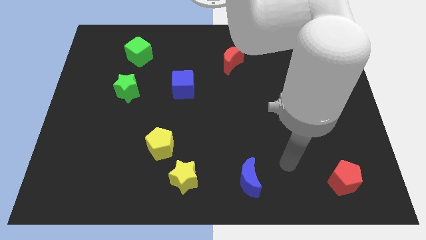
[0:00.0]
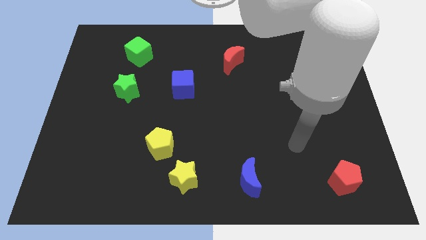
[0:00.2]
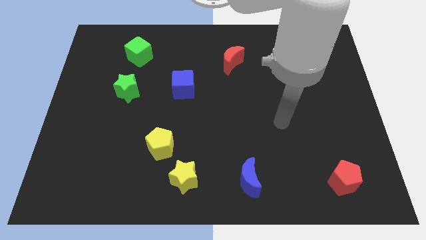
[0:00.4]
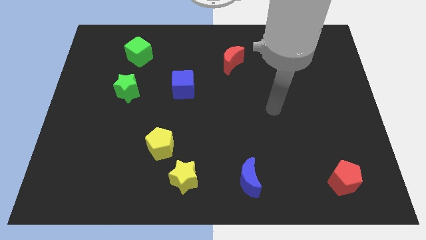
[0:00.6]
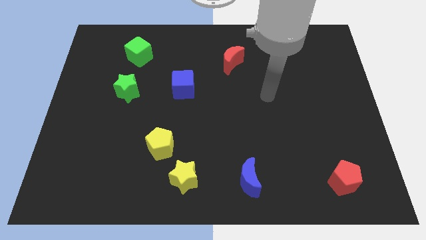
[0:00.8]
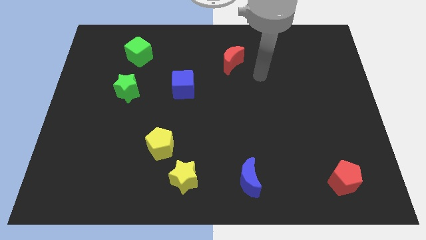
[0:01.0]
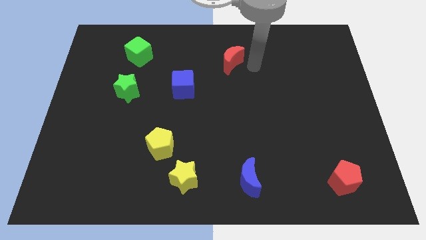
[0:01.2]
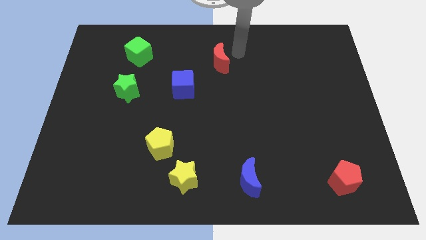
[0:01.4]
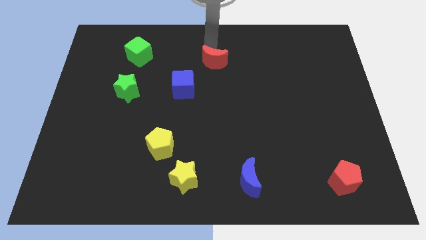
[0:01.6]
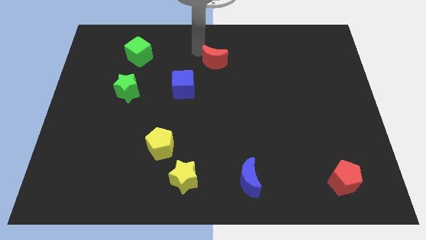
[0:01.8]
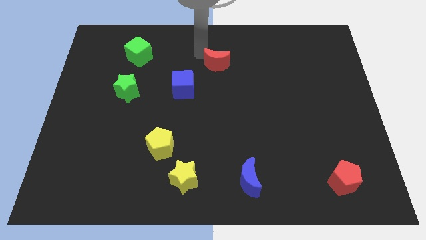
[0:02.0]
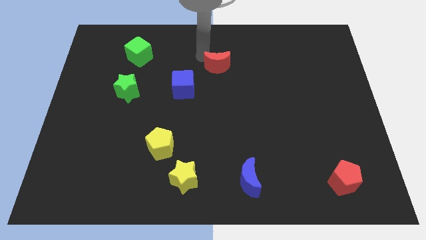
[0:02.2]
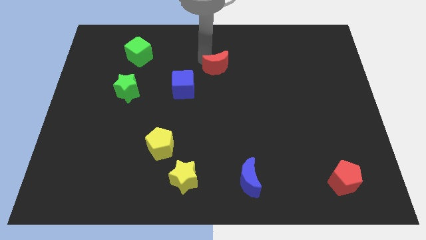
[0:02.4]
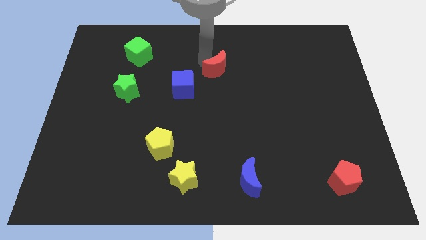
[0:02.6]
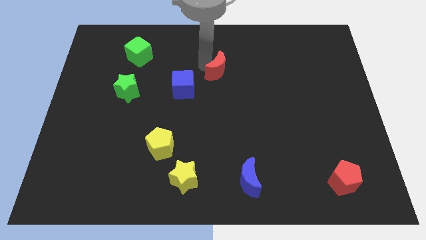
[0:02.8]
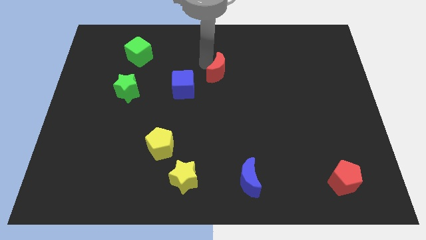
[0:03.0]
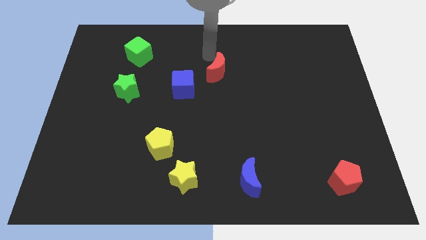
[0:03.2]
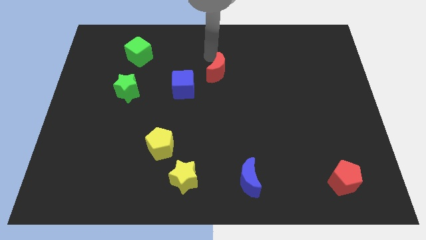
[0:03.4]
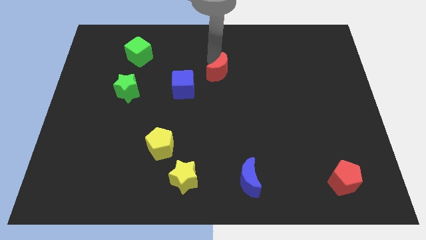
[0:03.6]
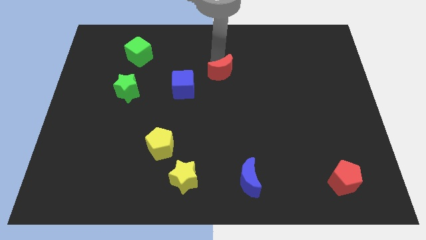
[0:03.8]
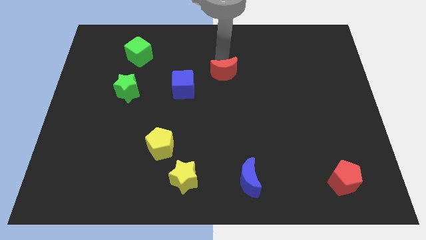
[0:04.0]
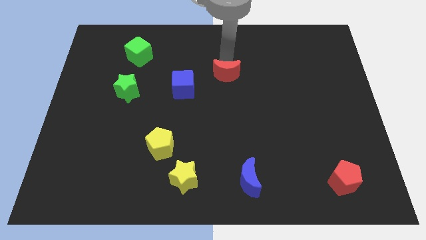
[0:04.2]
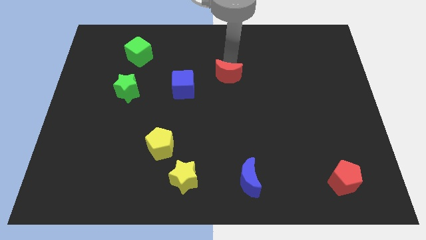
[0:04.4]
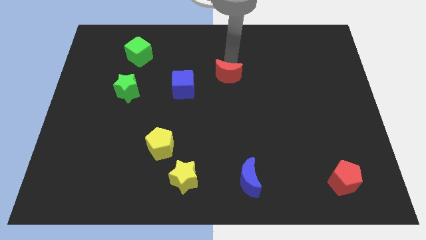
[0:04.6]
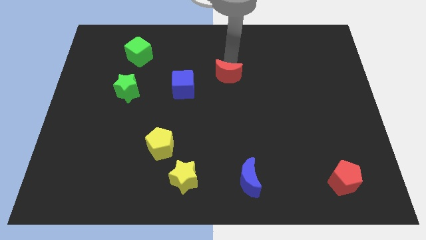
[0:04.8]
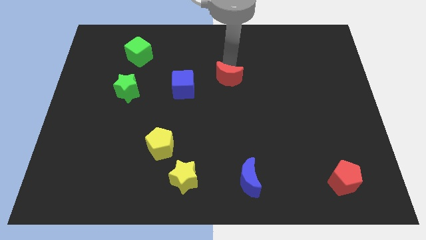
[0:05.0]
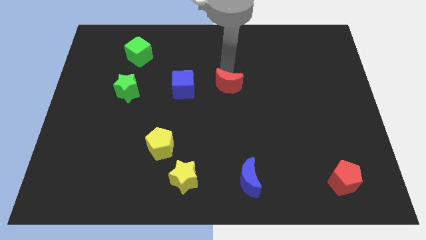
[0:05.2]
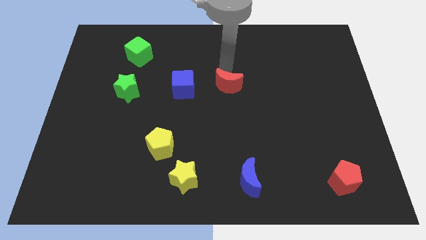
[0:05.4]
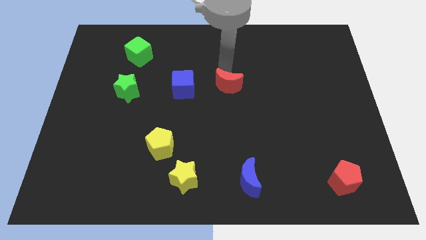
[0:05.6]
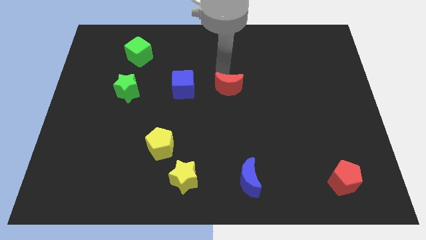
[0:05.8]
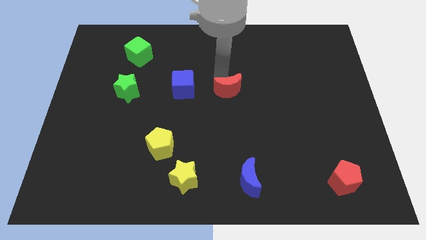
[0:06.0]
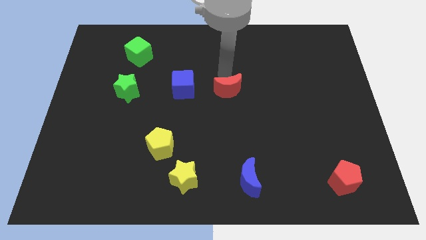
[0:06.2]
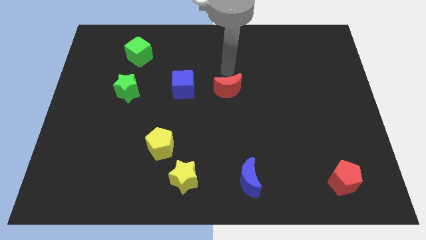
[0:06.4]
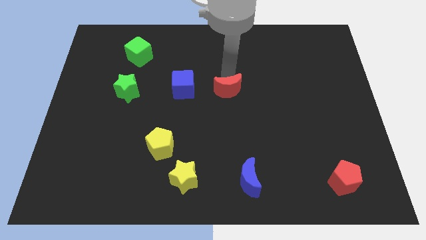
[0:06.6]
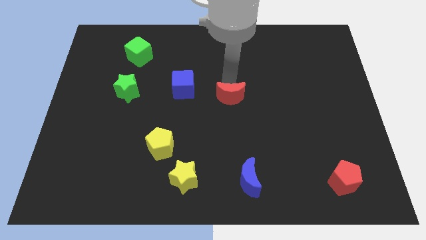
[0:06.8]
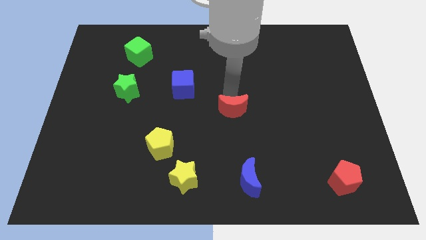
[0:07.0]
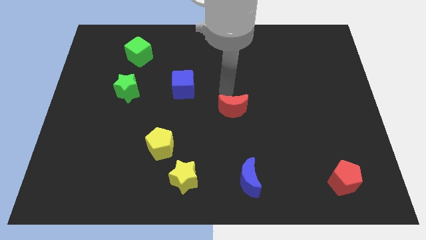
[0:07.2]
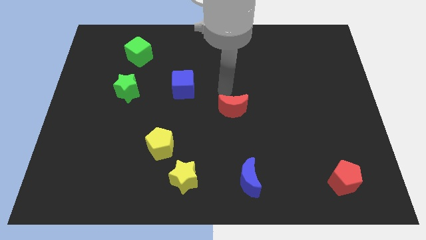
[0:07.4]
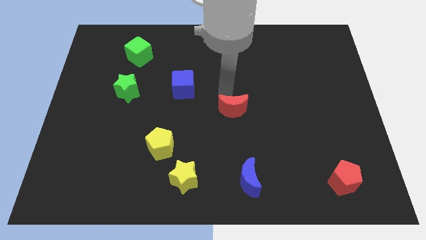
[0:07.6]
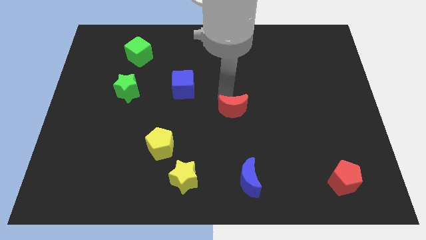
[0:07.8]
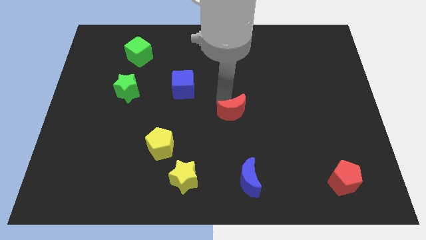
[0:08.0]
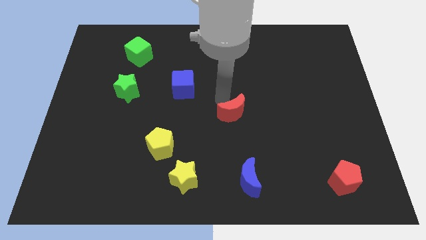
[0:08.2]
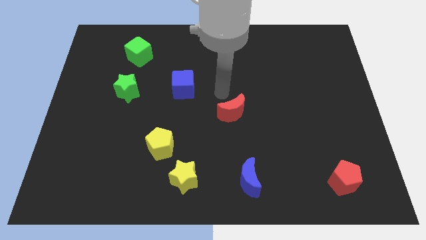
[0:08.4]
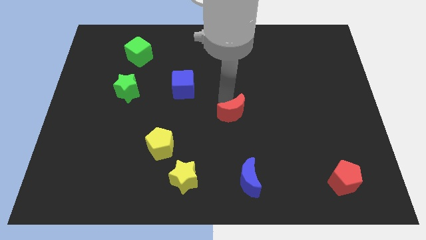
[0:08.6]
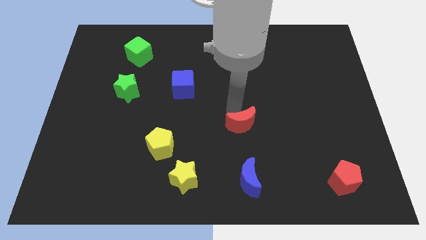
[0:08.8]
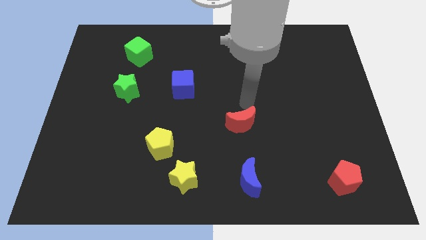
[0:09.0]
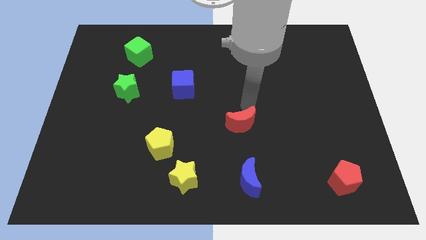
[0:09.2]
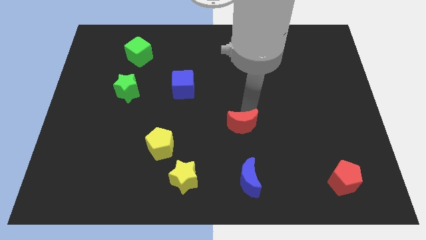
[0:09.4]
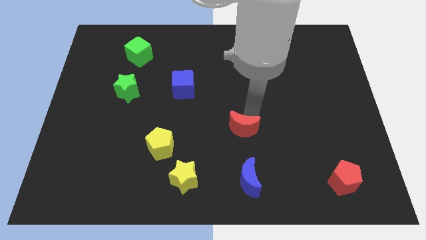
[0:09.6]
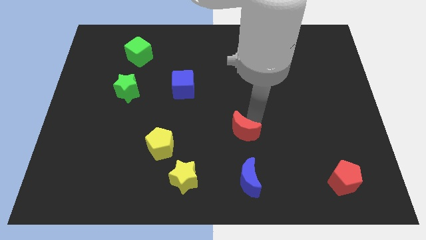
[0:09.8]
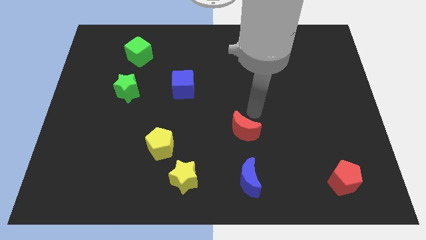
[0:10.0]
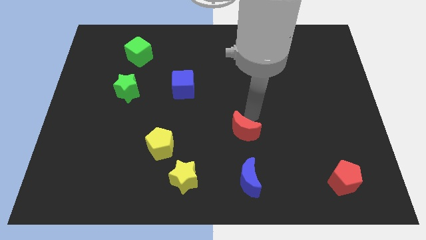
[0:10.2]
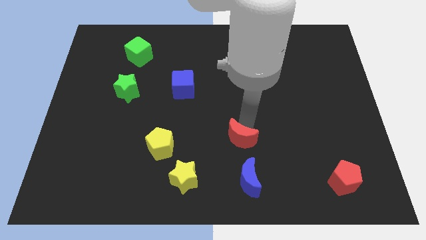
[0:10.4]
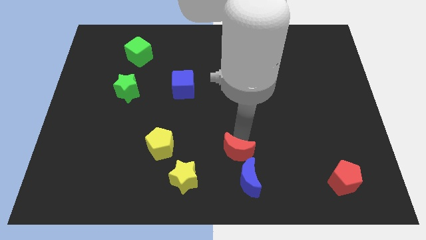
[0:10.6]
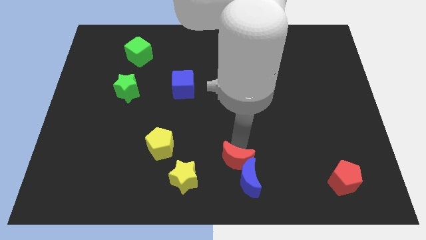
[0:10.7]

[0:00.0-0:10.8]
slide the red moon to the bottom
